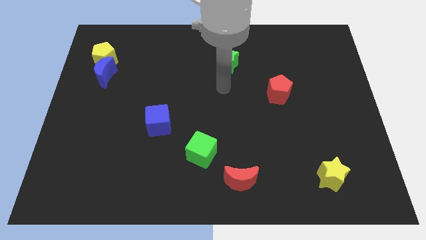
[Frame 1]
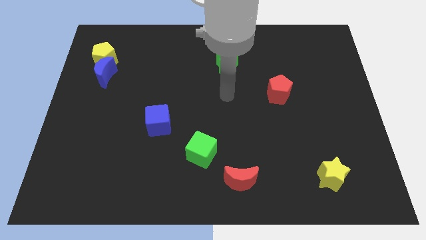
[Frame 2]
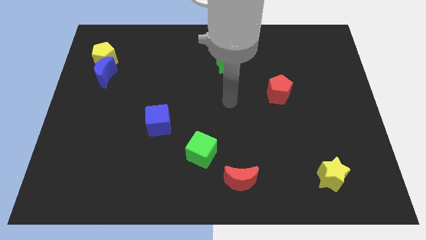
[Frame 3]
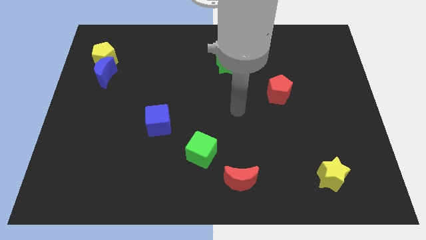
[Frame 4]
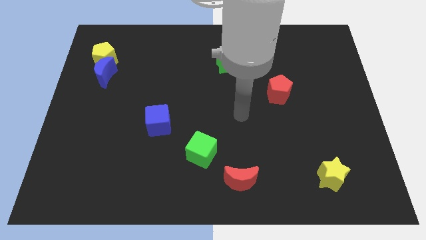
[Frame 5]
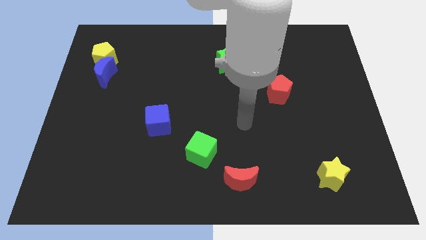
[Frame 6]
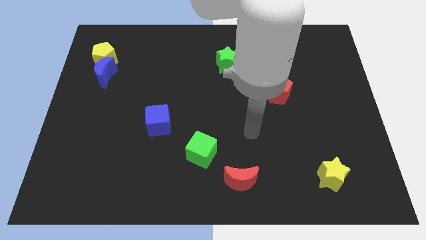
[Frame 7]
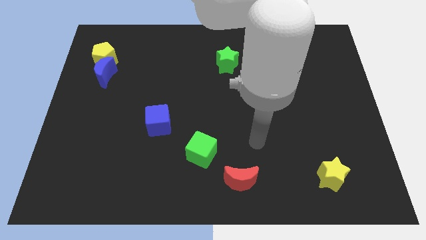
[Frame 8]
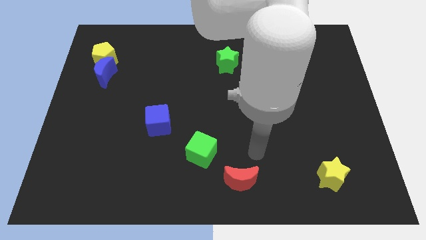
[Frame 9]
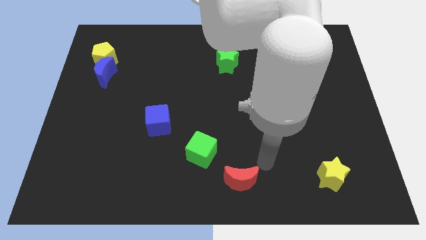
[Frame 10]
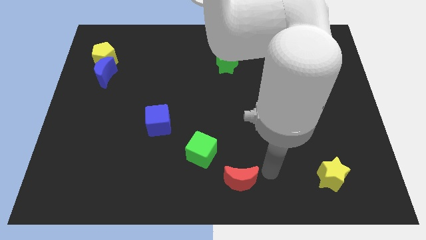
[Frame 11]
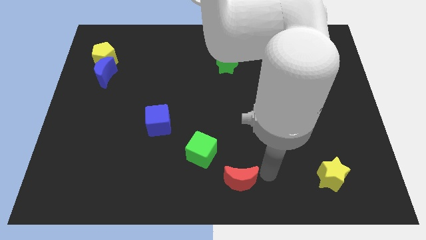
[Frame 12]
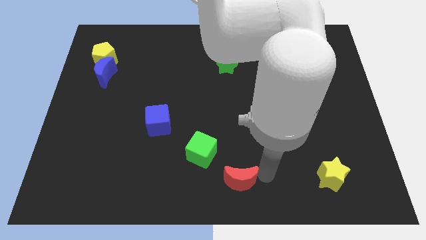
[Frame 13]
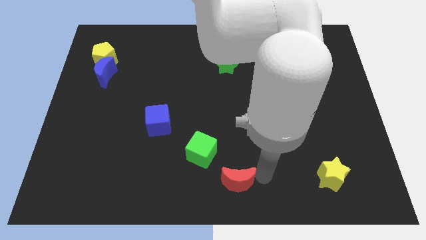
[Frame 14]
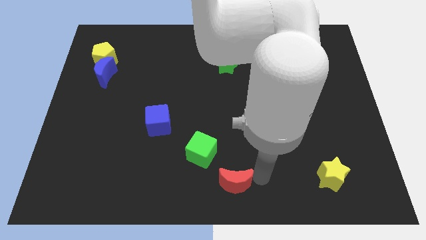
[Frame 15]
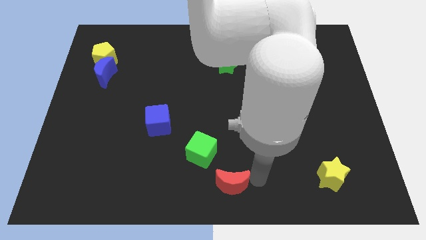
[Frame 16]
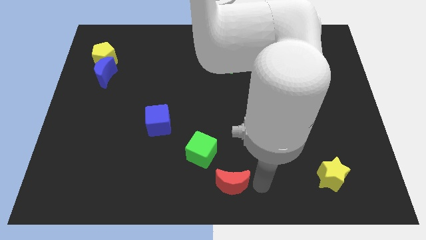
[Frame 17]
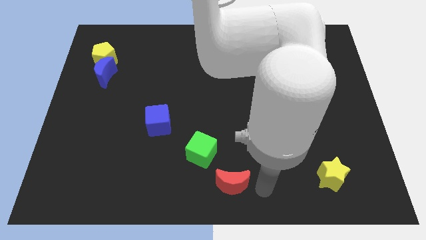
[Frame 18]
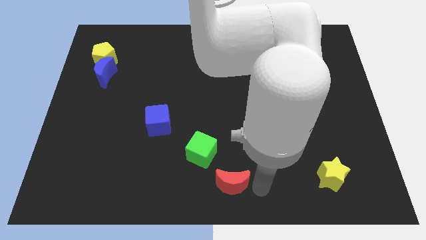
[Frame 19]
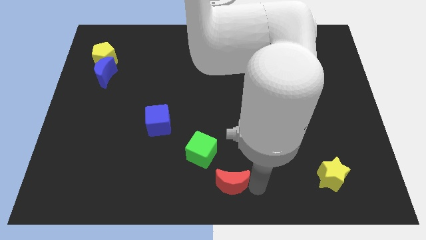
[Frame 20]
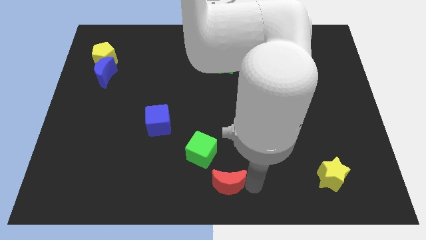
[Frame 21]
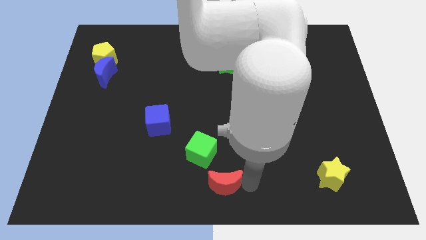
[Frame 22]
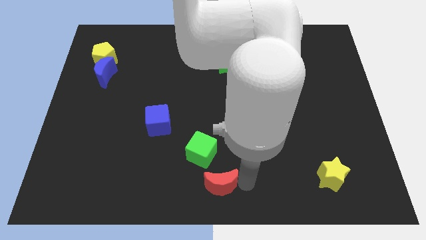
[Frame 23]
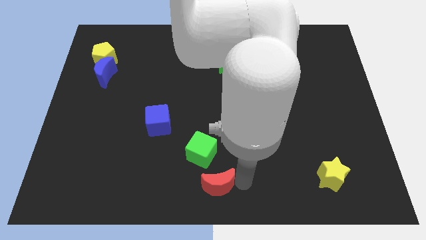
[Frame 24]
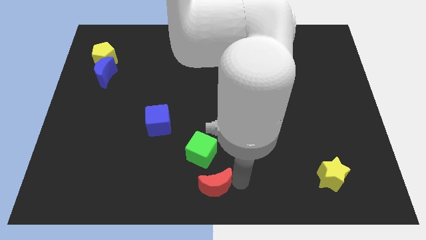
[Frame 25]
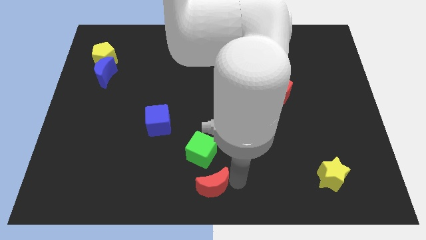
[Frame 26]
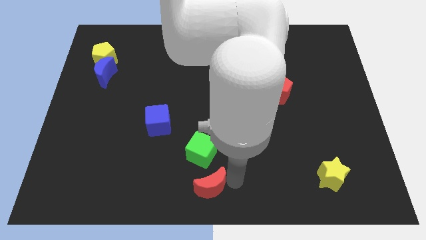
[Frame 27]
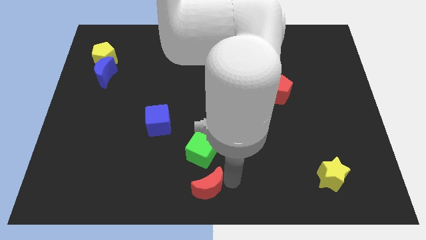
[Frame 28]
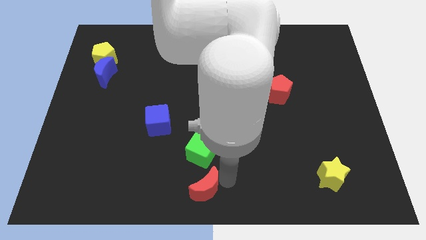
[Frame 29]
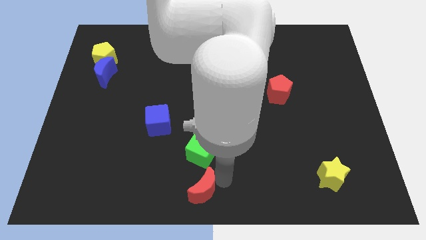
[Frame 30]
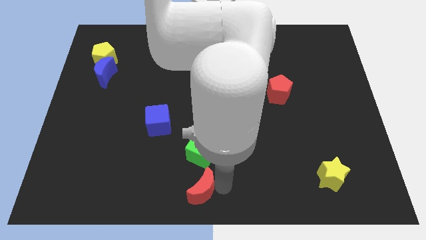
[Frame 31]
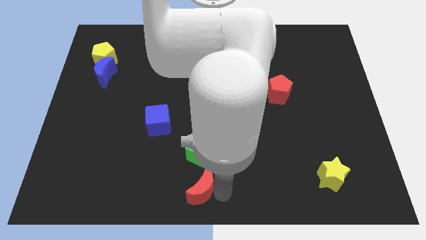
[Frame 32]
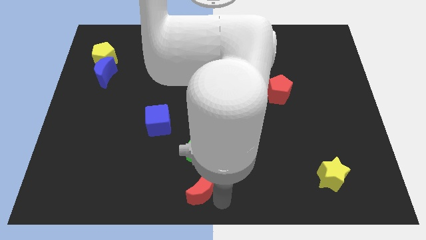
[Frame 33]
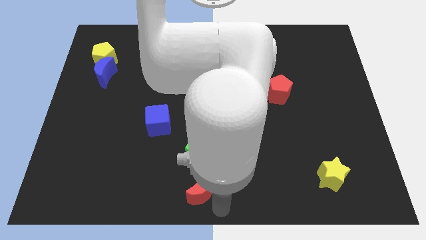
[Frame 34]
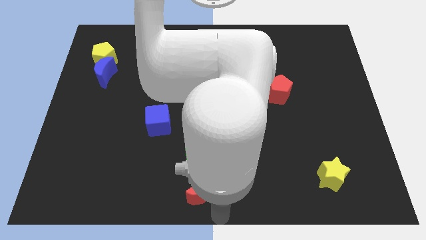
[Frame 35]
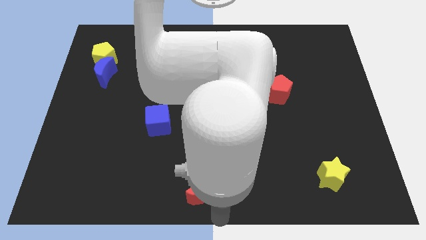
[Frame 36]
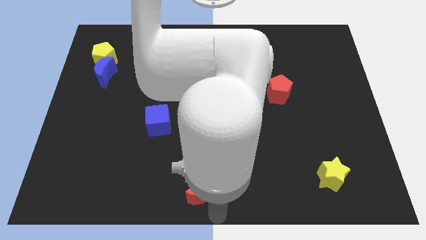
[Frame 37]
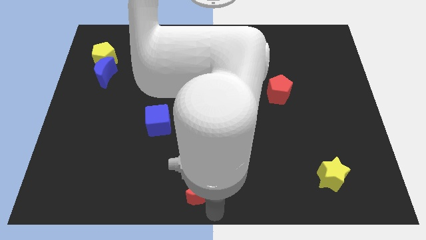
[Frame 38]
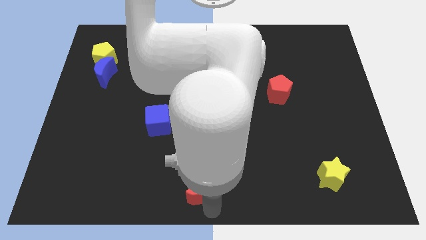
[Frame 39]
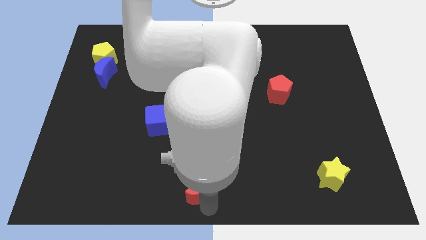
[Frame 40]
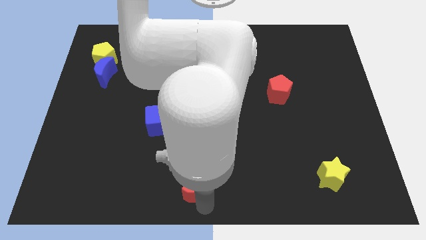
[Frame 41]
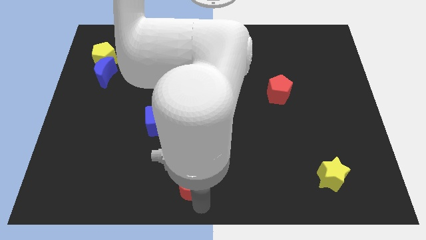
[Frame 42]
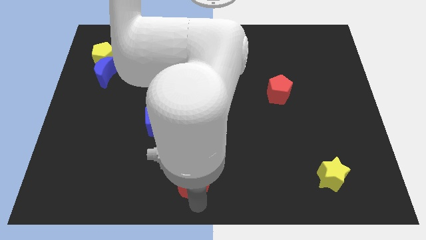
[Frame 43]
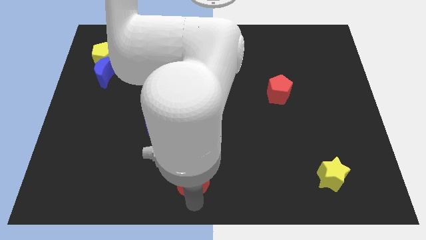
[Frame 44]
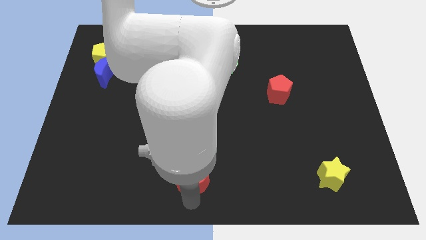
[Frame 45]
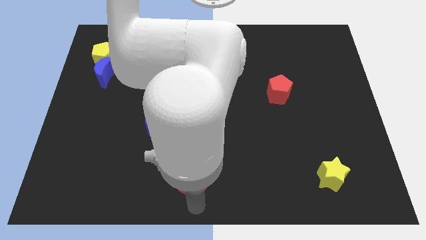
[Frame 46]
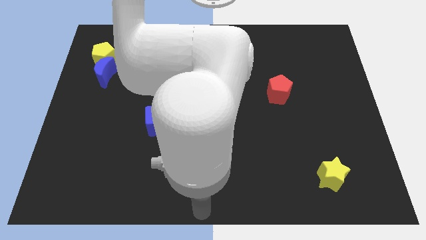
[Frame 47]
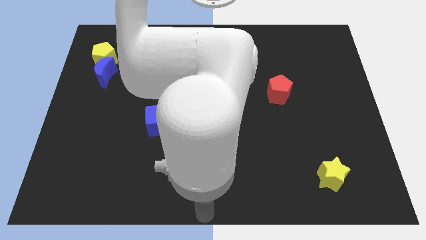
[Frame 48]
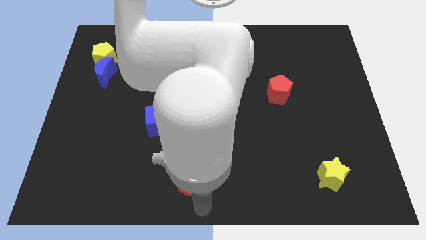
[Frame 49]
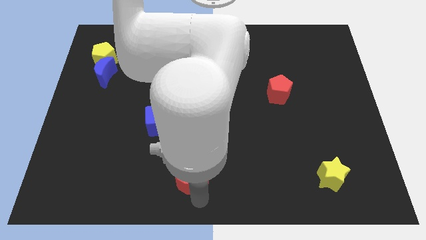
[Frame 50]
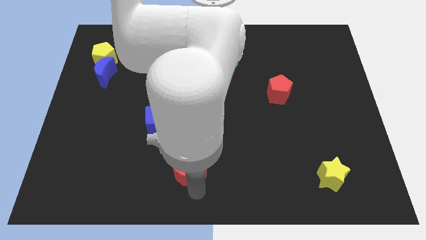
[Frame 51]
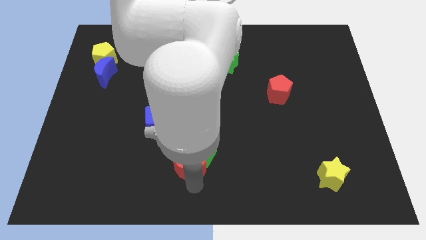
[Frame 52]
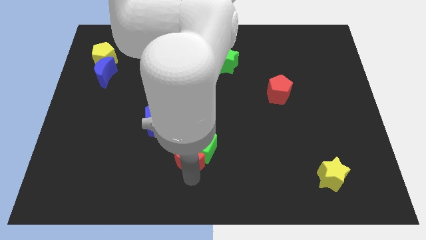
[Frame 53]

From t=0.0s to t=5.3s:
put the red moon to the bottom right of the blue cube

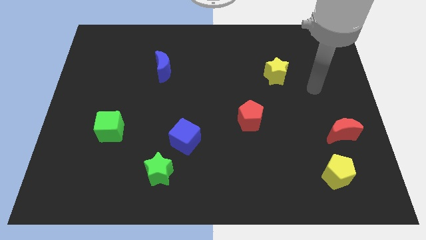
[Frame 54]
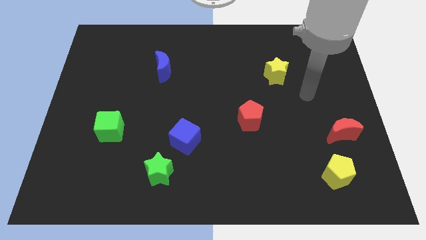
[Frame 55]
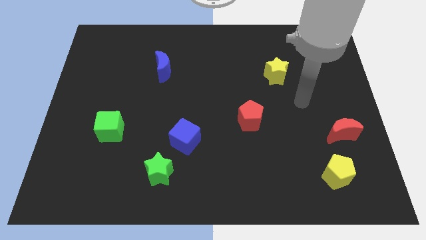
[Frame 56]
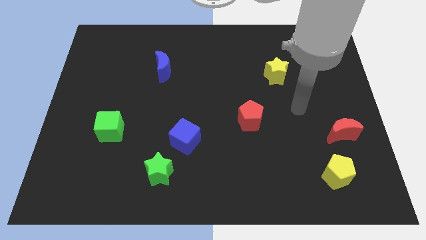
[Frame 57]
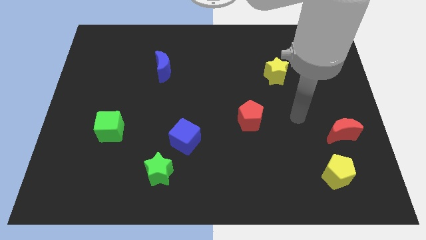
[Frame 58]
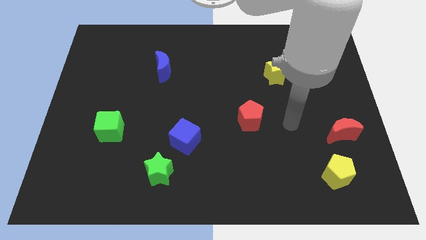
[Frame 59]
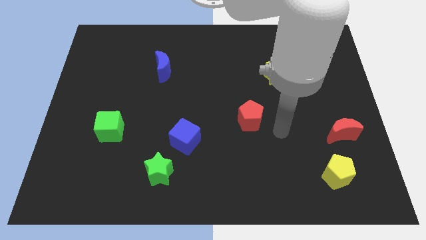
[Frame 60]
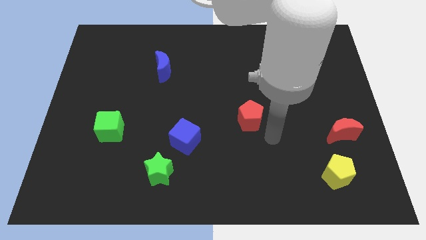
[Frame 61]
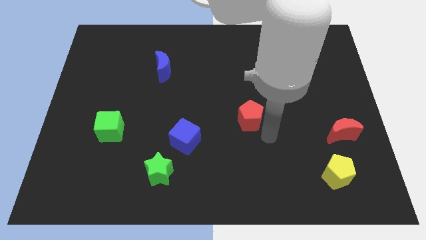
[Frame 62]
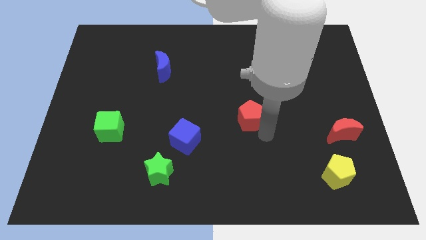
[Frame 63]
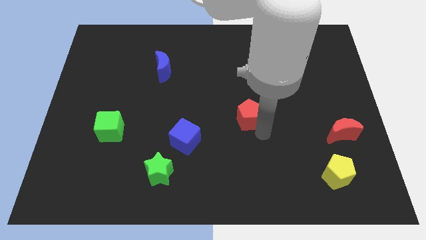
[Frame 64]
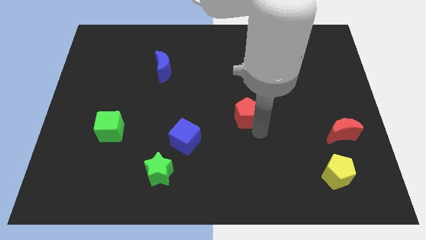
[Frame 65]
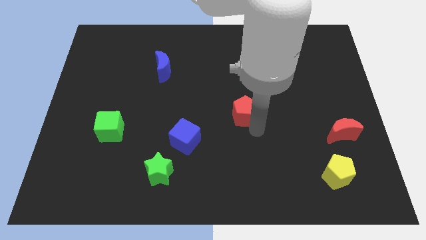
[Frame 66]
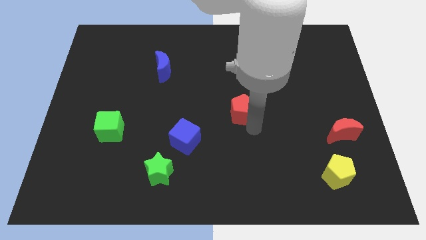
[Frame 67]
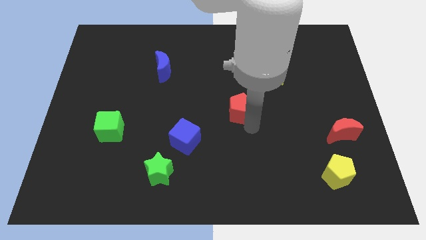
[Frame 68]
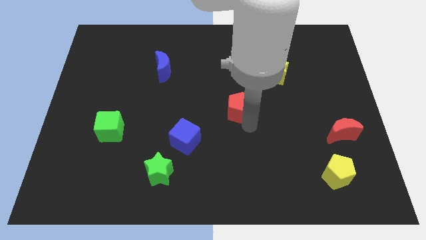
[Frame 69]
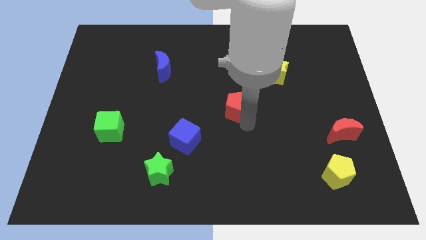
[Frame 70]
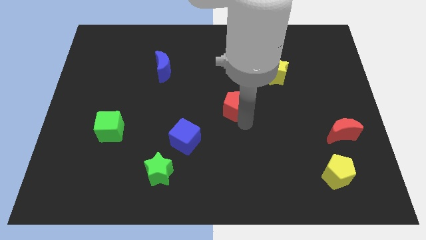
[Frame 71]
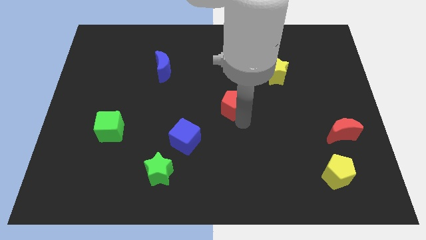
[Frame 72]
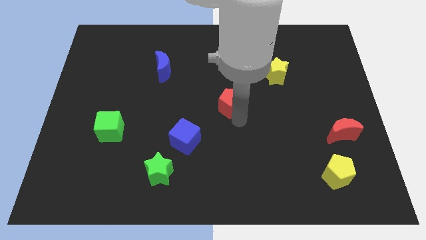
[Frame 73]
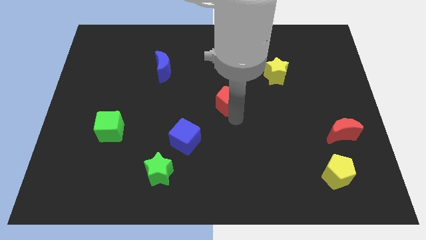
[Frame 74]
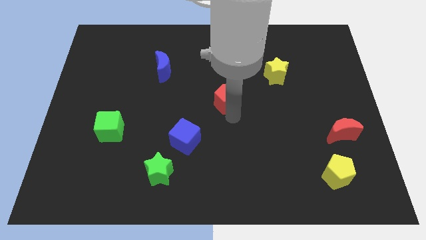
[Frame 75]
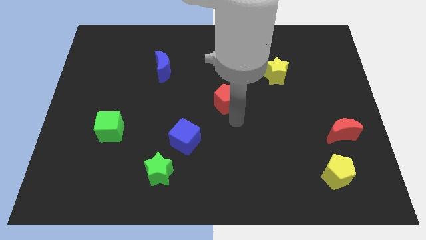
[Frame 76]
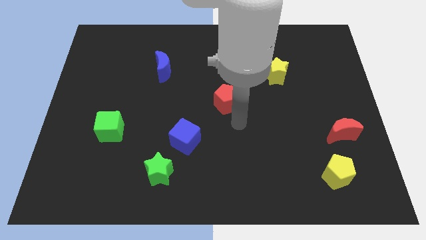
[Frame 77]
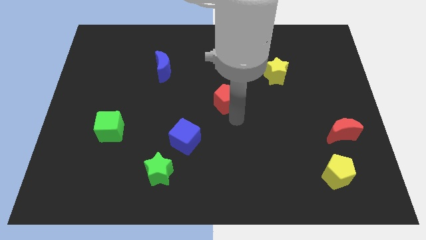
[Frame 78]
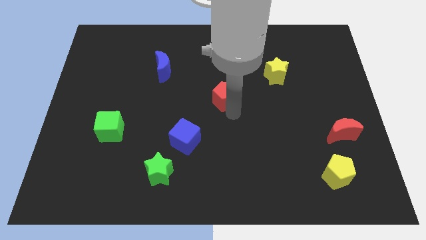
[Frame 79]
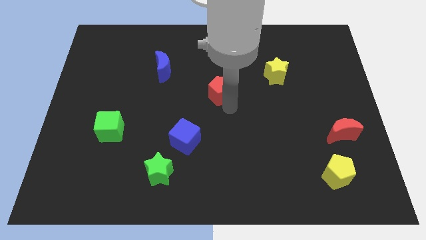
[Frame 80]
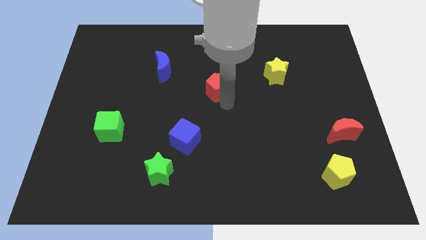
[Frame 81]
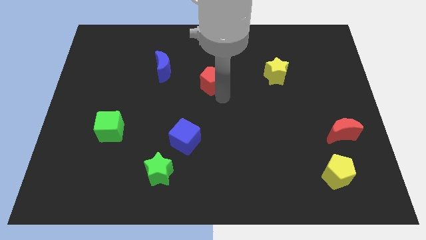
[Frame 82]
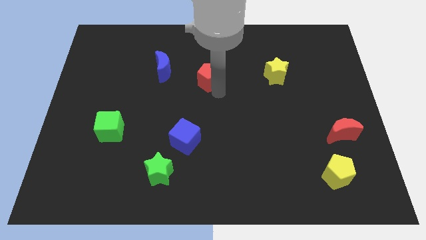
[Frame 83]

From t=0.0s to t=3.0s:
push the red pentagon to the right side of the blue moon
